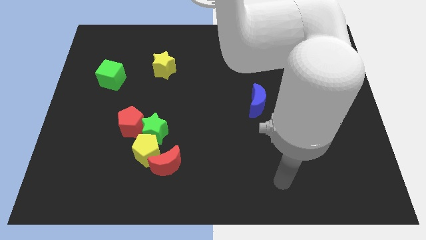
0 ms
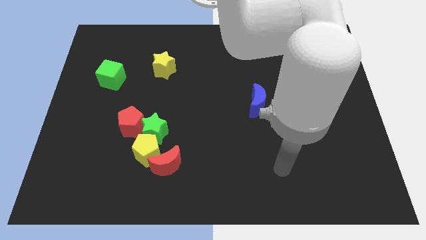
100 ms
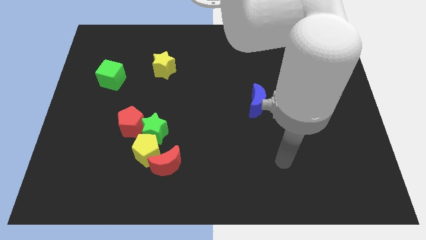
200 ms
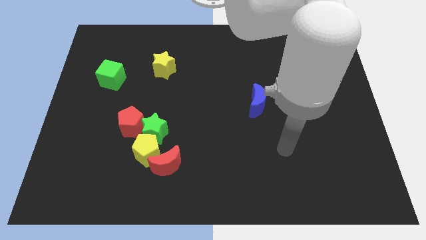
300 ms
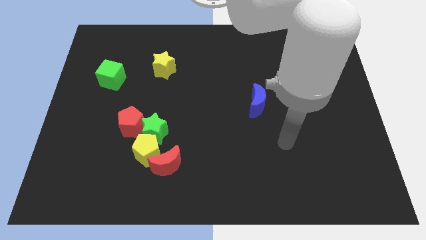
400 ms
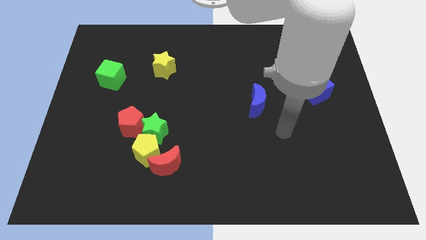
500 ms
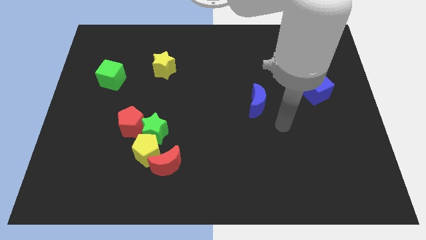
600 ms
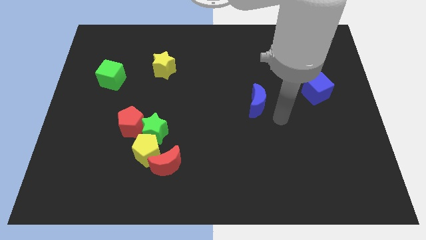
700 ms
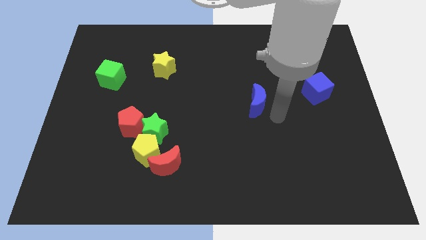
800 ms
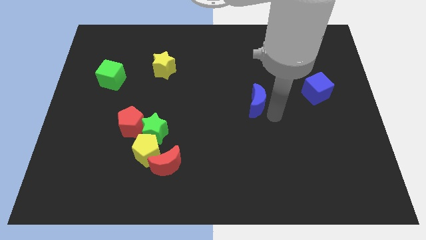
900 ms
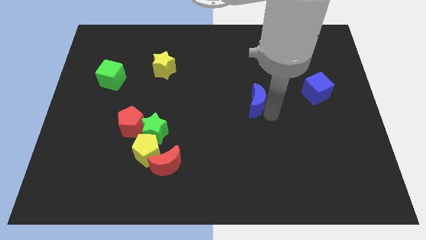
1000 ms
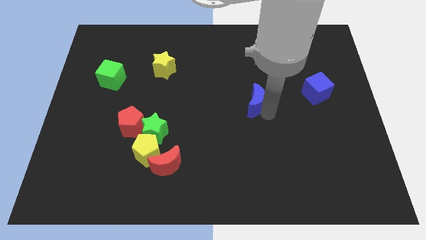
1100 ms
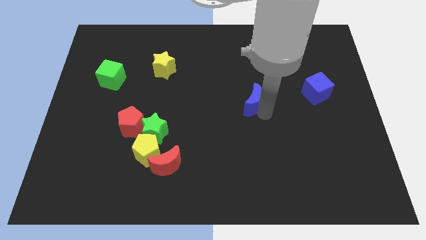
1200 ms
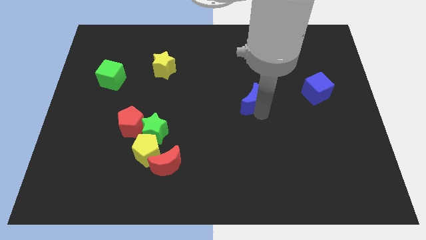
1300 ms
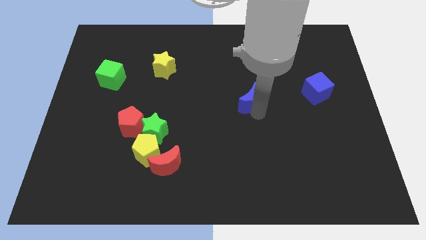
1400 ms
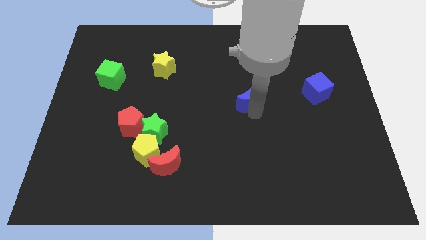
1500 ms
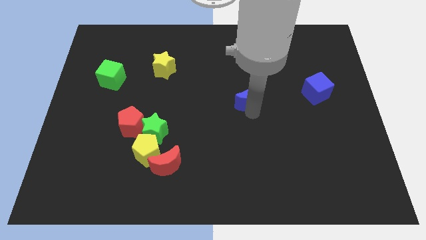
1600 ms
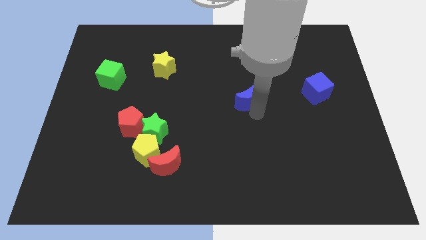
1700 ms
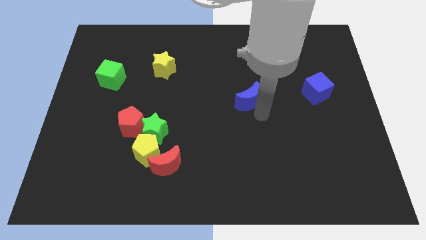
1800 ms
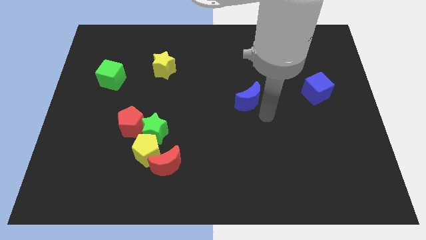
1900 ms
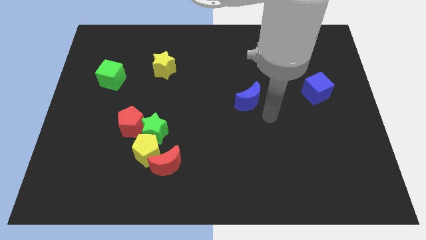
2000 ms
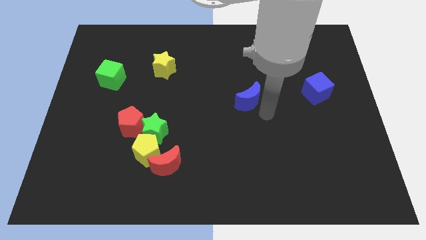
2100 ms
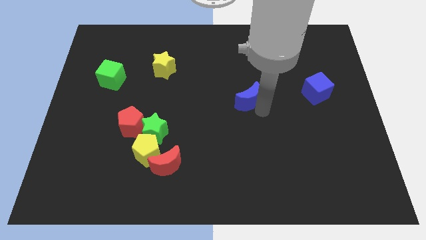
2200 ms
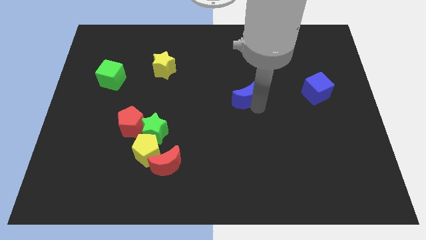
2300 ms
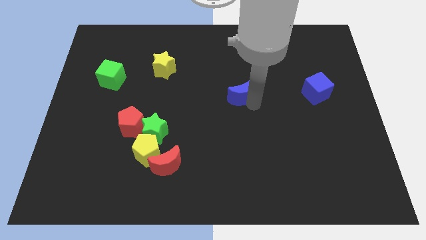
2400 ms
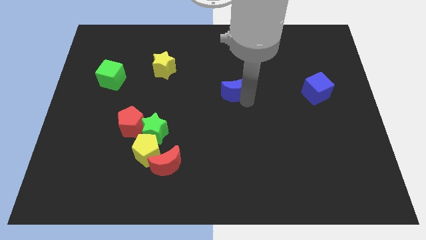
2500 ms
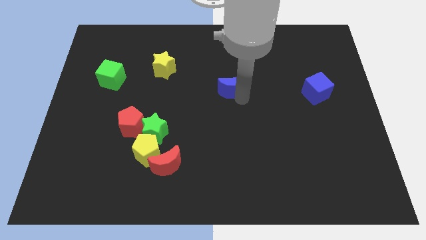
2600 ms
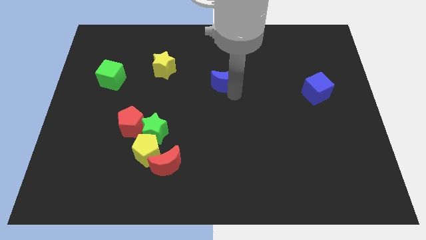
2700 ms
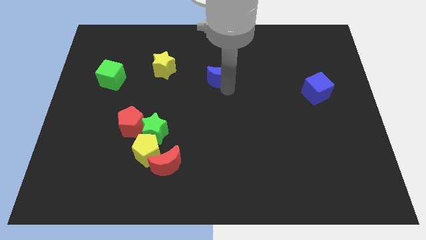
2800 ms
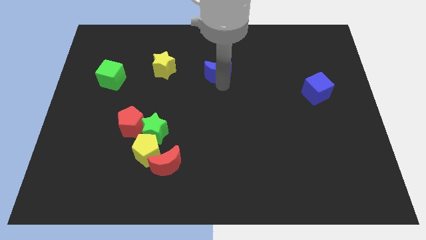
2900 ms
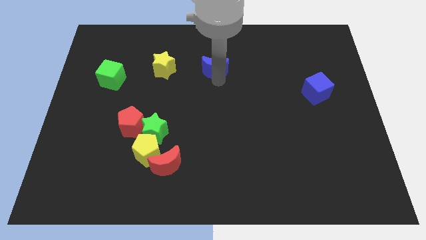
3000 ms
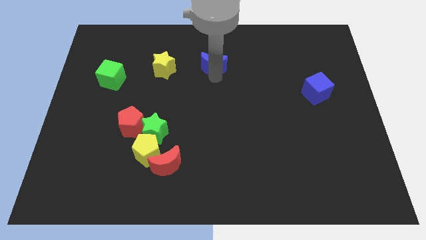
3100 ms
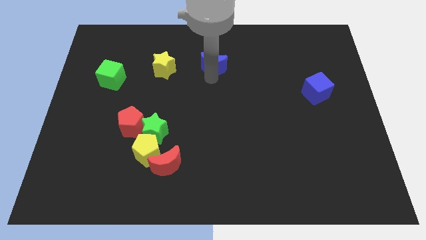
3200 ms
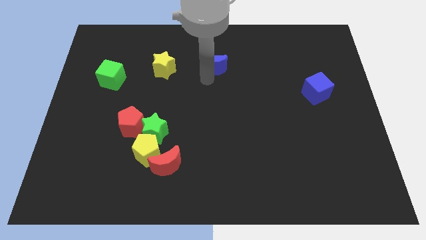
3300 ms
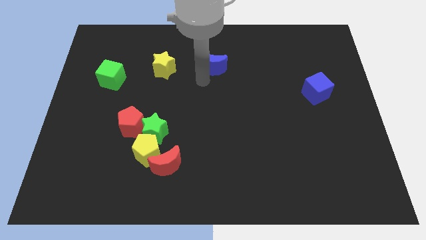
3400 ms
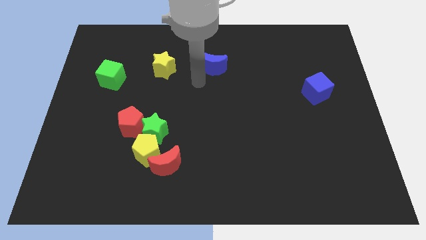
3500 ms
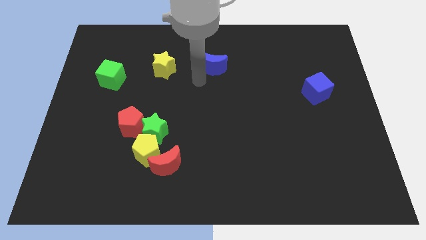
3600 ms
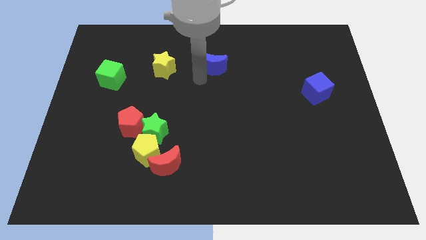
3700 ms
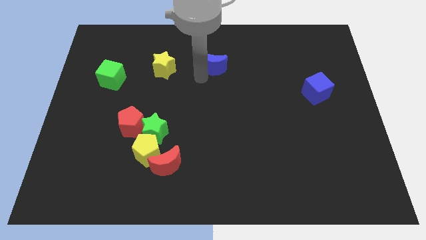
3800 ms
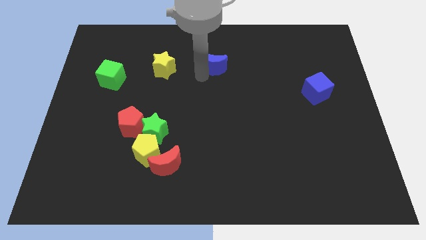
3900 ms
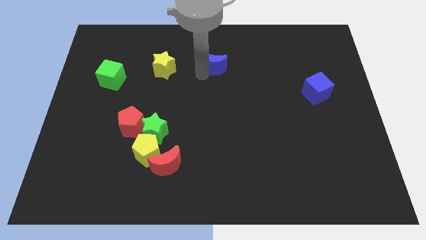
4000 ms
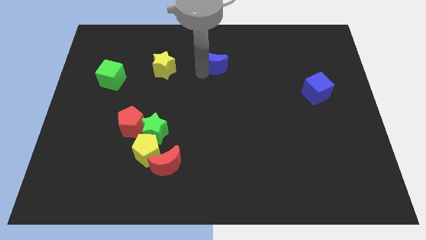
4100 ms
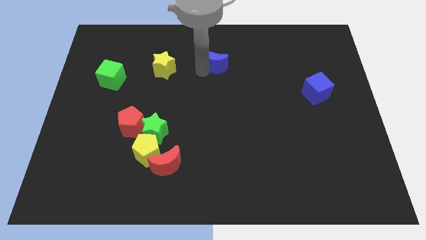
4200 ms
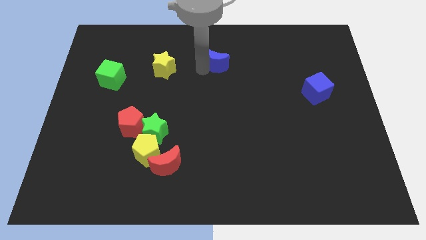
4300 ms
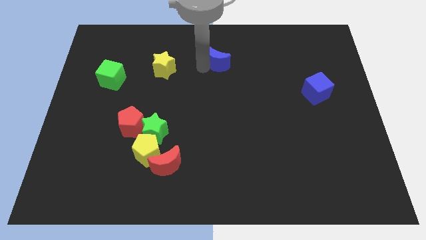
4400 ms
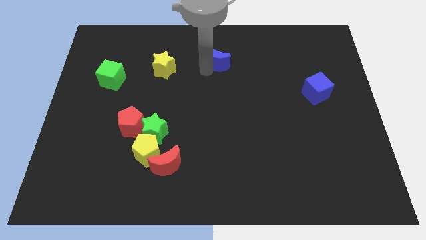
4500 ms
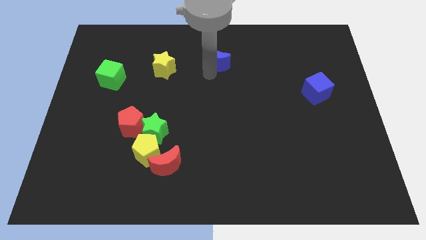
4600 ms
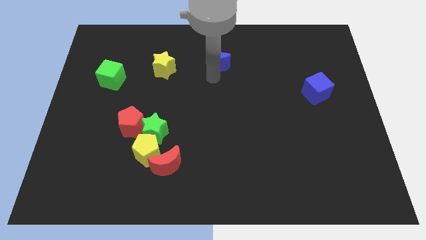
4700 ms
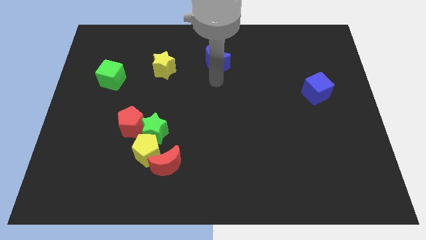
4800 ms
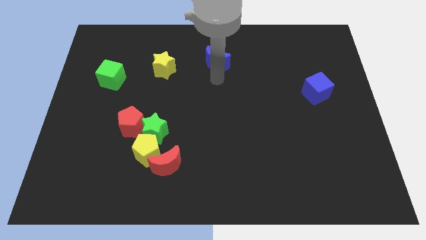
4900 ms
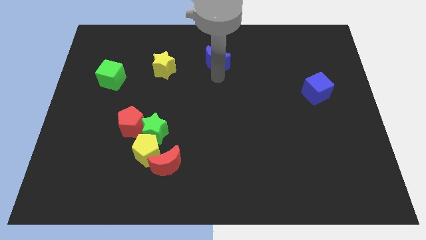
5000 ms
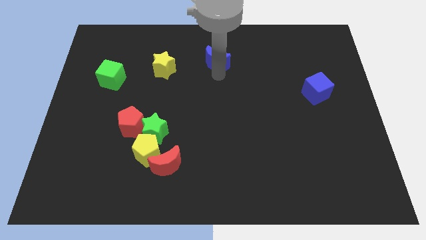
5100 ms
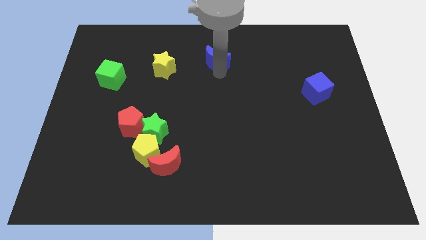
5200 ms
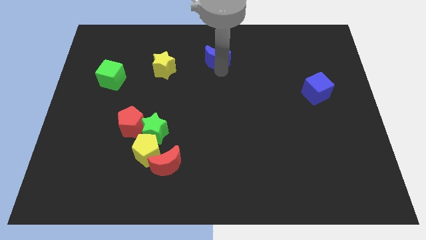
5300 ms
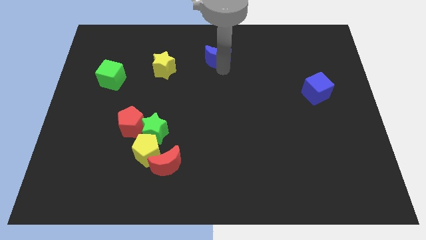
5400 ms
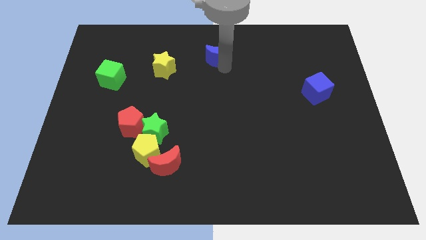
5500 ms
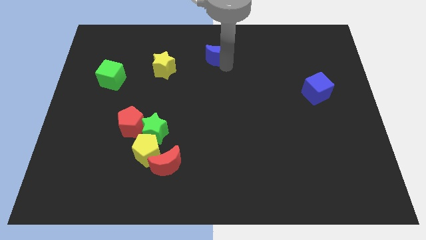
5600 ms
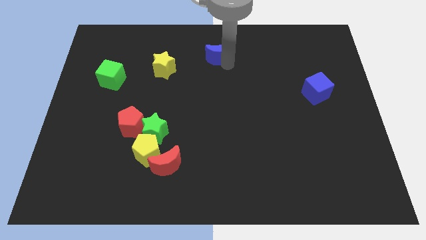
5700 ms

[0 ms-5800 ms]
put the blue moon to the top

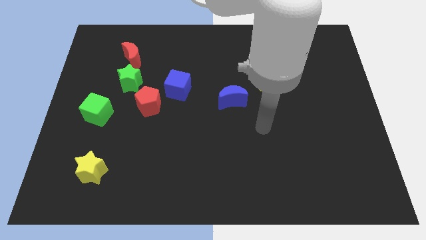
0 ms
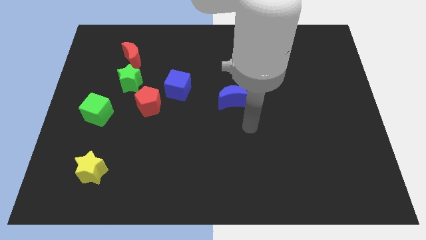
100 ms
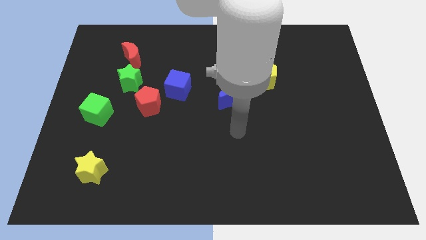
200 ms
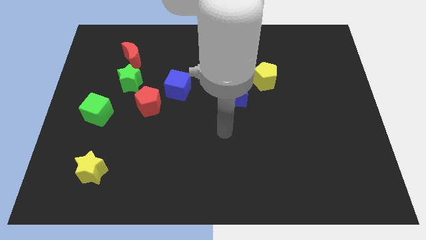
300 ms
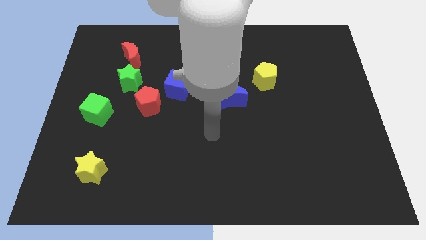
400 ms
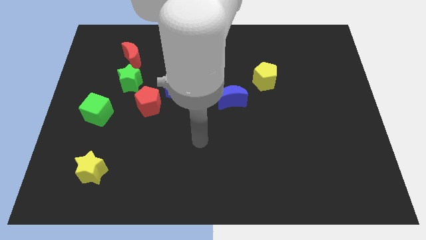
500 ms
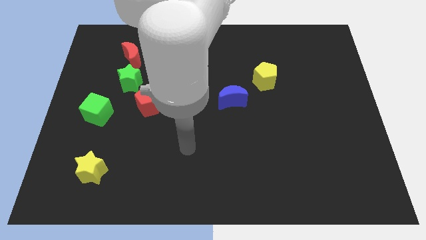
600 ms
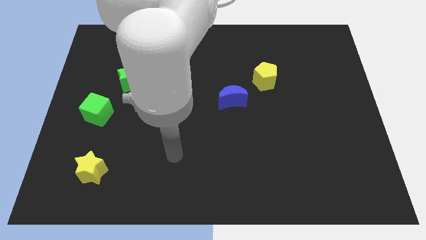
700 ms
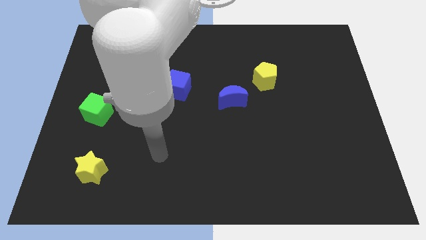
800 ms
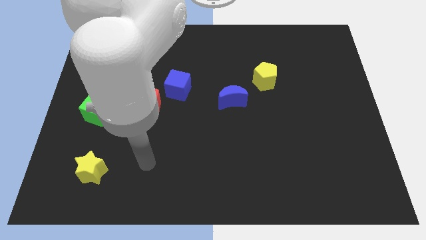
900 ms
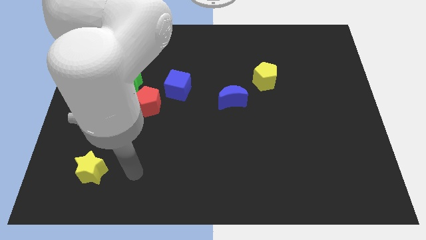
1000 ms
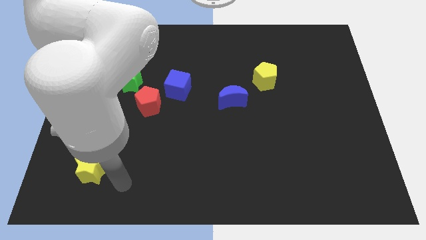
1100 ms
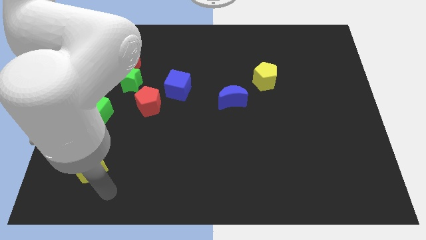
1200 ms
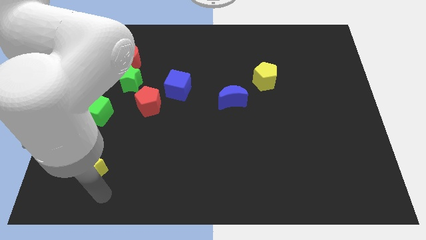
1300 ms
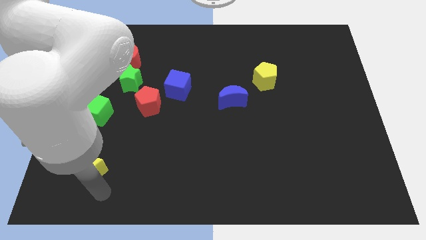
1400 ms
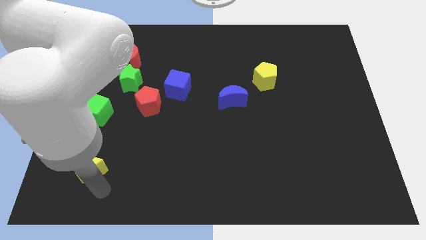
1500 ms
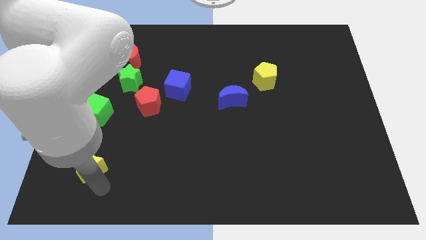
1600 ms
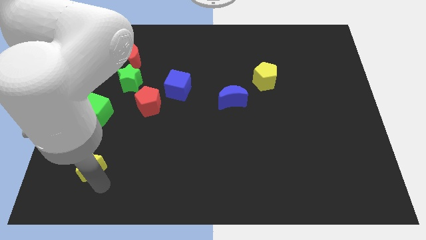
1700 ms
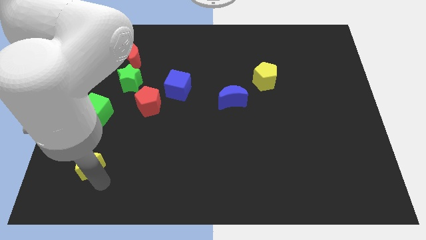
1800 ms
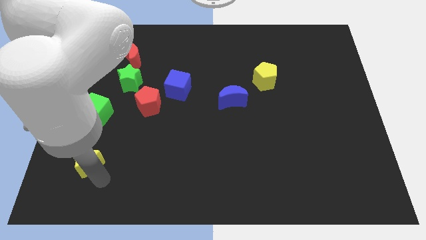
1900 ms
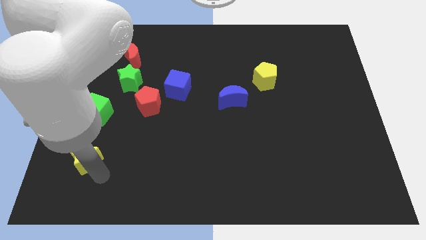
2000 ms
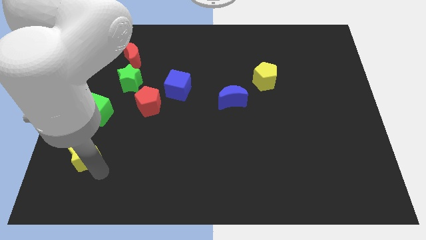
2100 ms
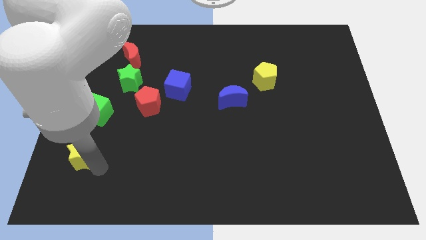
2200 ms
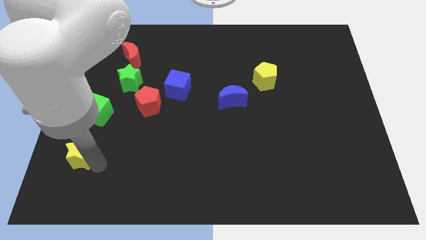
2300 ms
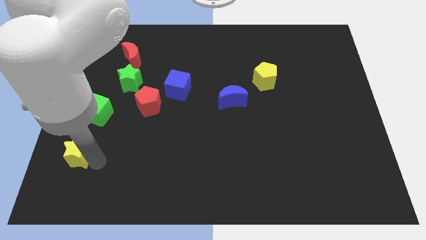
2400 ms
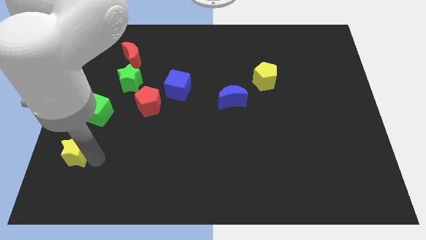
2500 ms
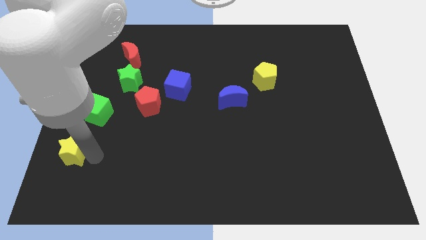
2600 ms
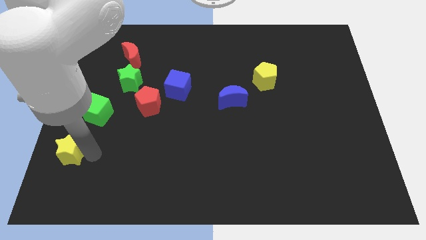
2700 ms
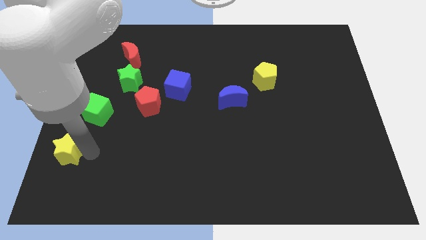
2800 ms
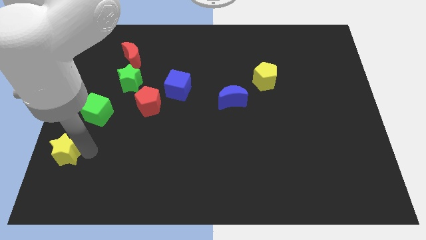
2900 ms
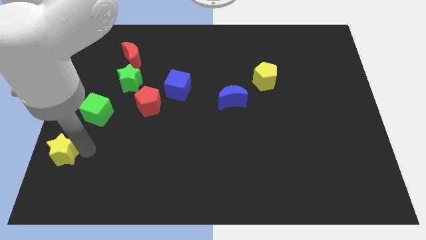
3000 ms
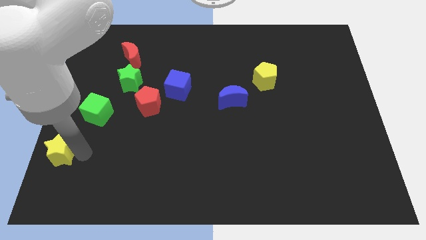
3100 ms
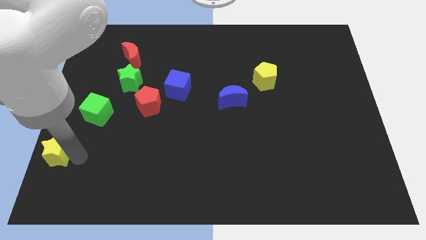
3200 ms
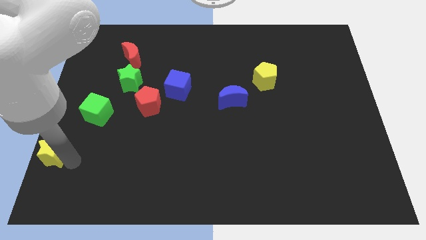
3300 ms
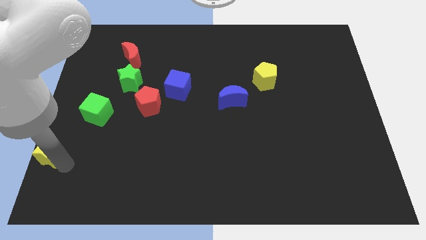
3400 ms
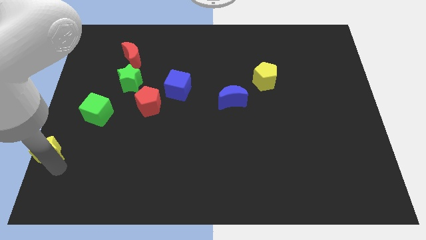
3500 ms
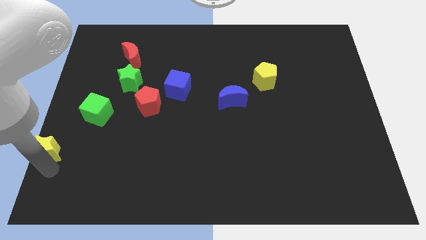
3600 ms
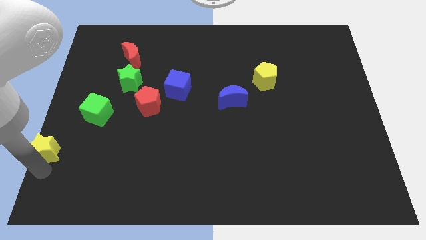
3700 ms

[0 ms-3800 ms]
put the yellow star to the left side
